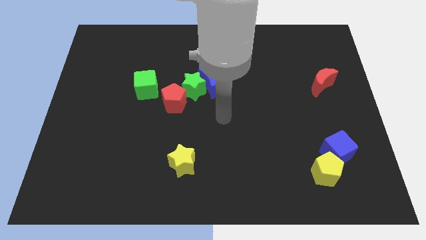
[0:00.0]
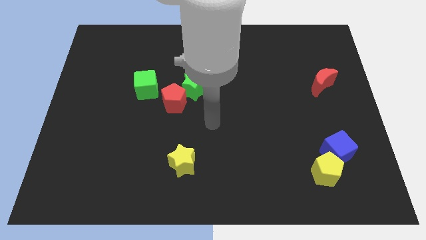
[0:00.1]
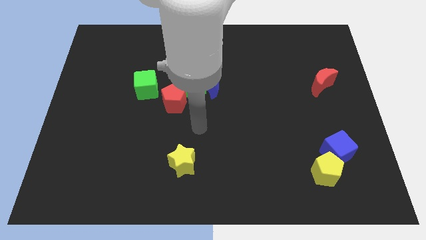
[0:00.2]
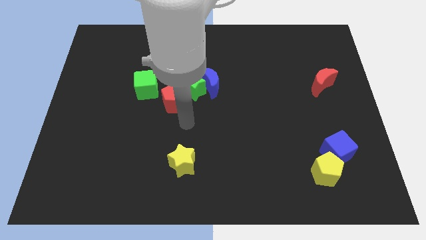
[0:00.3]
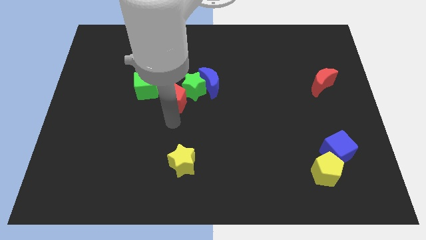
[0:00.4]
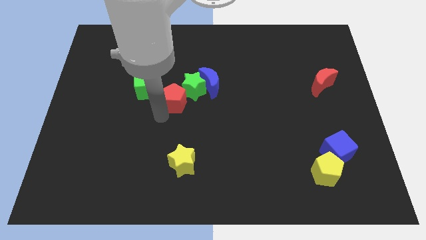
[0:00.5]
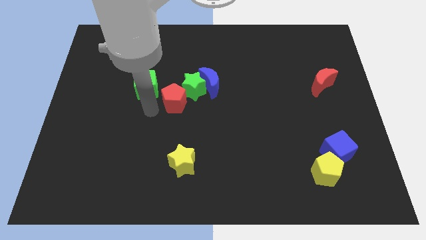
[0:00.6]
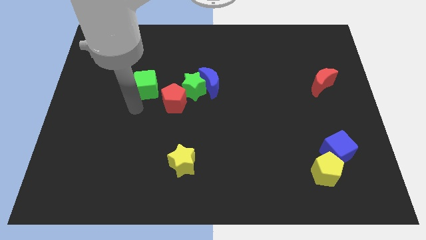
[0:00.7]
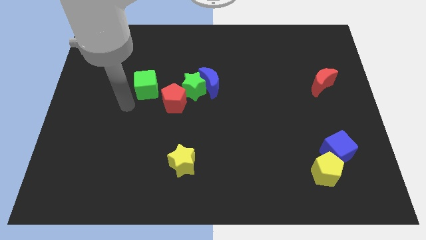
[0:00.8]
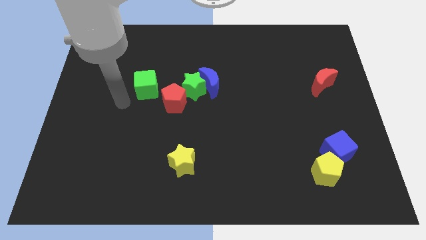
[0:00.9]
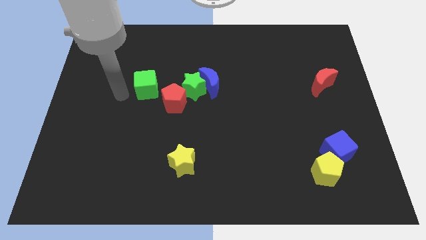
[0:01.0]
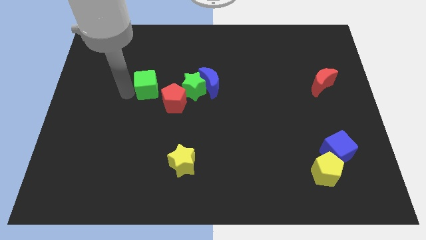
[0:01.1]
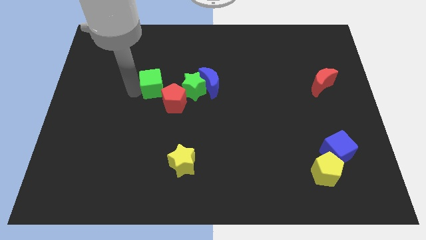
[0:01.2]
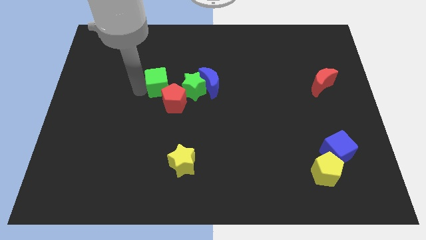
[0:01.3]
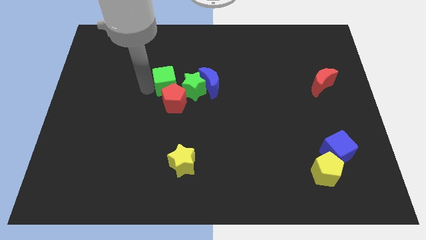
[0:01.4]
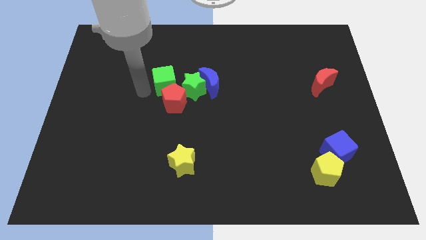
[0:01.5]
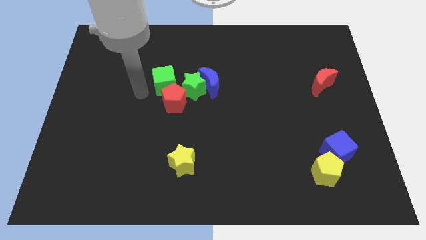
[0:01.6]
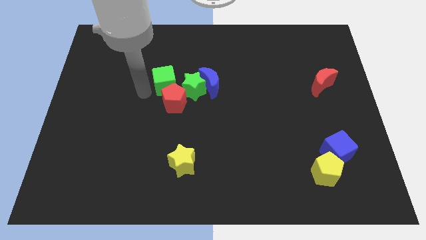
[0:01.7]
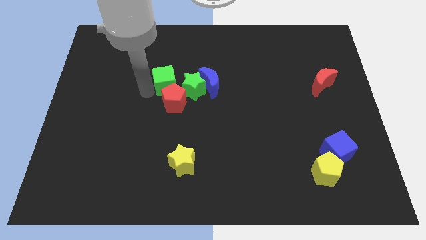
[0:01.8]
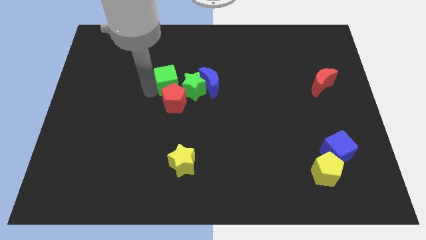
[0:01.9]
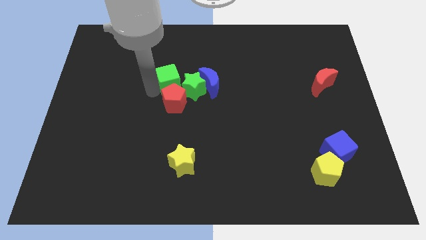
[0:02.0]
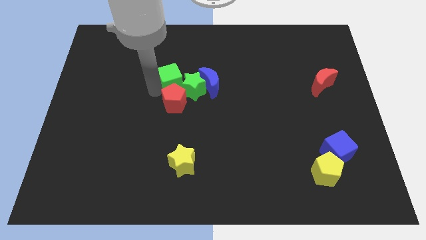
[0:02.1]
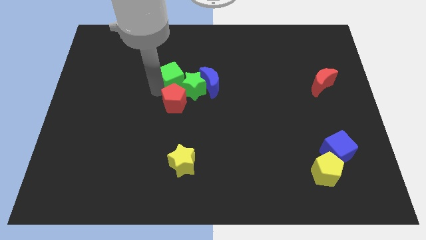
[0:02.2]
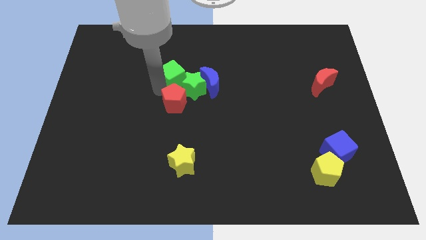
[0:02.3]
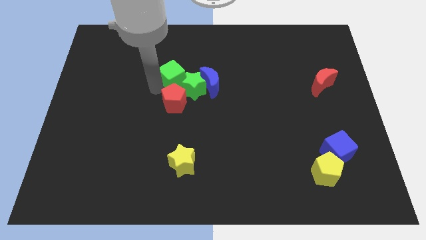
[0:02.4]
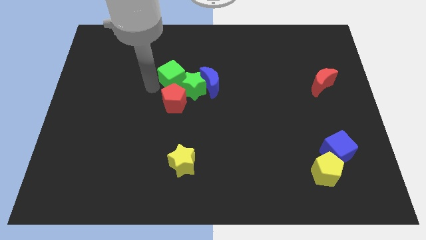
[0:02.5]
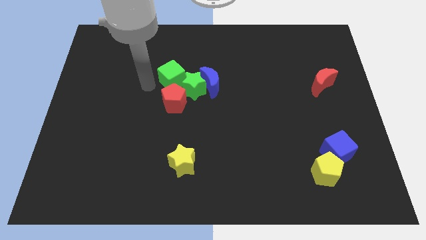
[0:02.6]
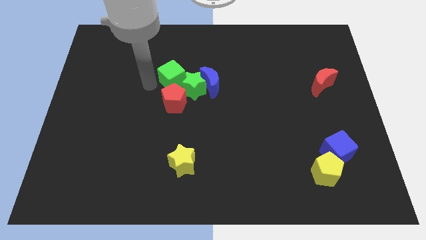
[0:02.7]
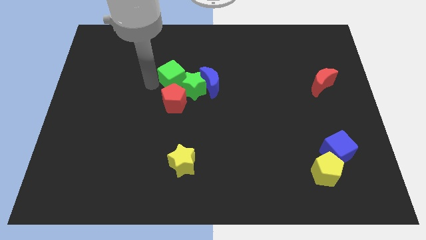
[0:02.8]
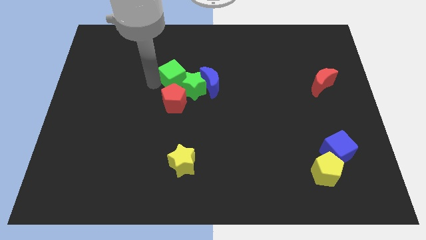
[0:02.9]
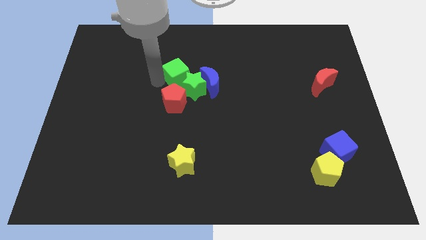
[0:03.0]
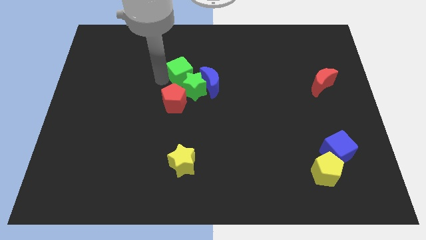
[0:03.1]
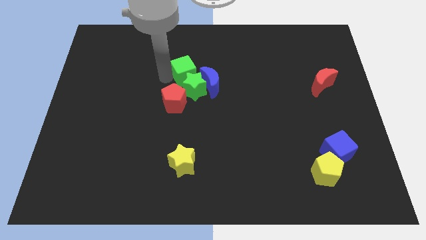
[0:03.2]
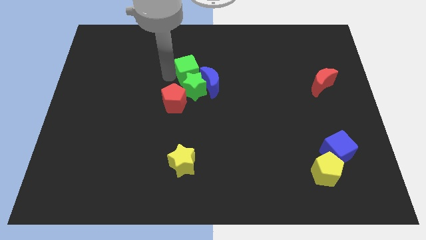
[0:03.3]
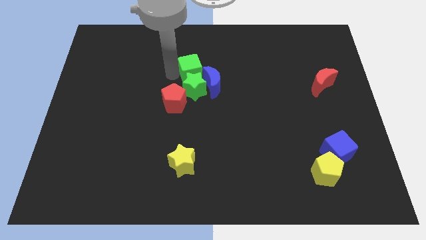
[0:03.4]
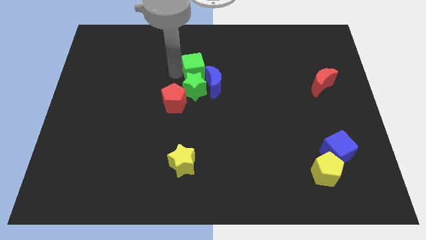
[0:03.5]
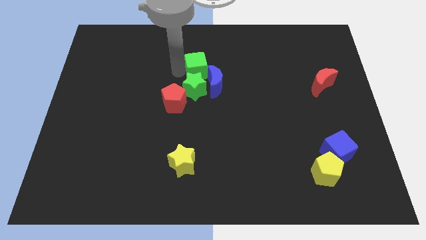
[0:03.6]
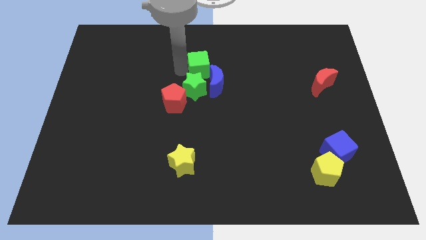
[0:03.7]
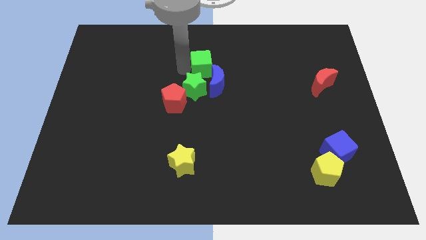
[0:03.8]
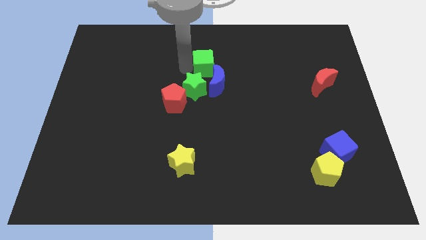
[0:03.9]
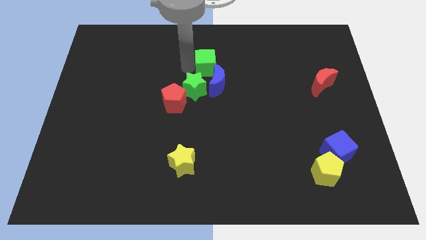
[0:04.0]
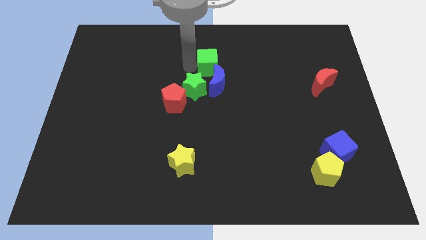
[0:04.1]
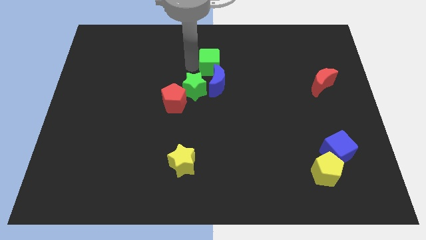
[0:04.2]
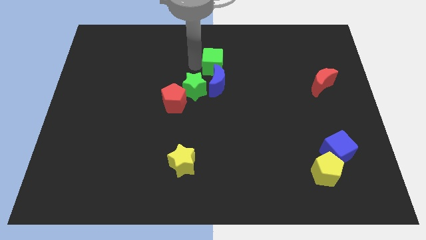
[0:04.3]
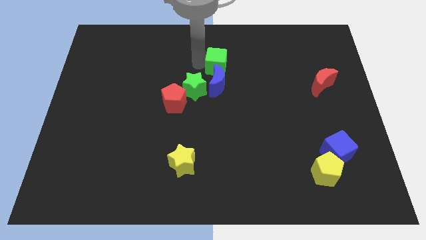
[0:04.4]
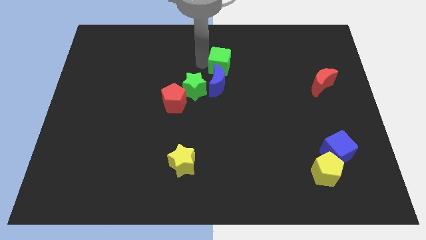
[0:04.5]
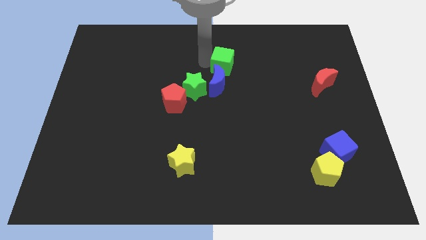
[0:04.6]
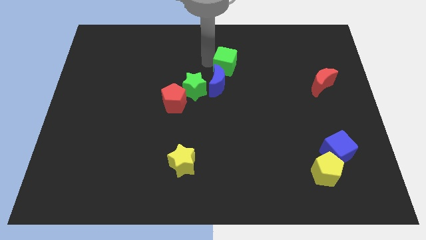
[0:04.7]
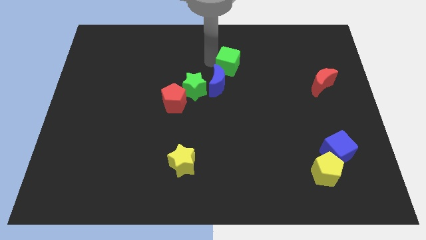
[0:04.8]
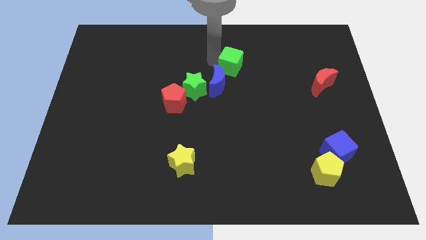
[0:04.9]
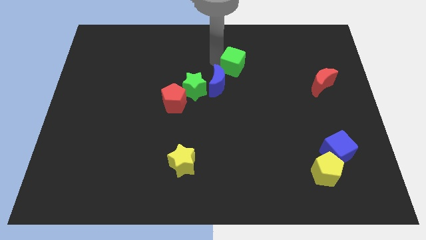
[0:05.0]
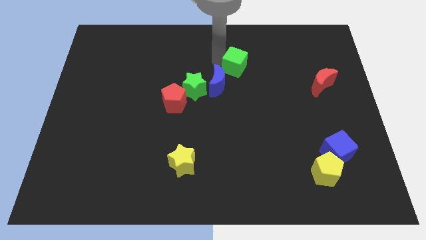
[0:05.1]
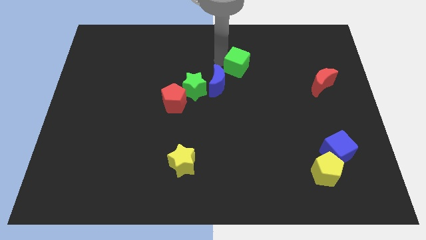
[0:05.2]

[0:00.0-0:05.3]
push the green cube right

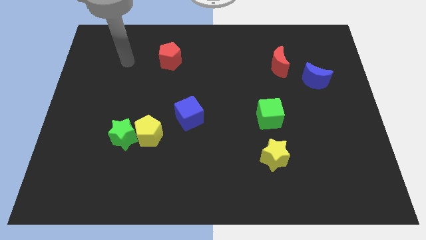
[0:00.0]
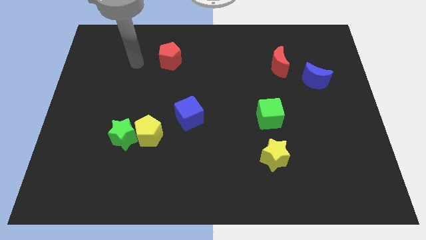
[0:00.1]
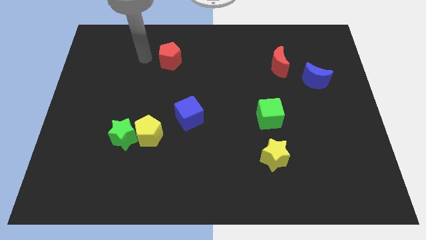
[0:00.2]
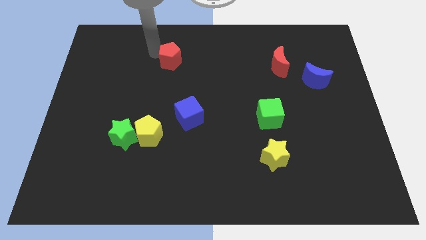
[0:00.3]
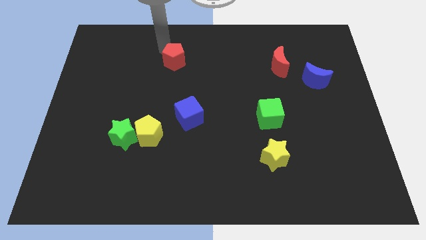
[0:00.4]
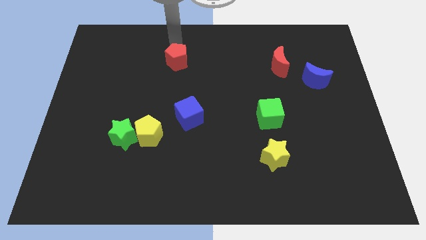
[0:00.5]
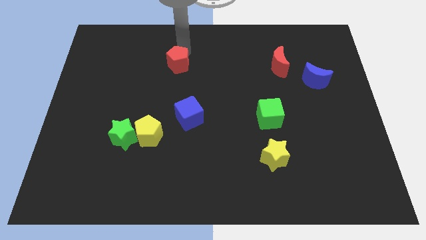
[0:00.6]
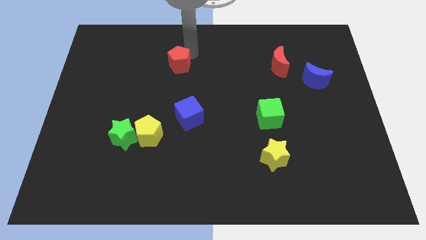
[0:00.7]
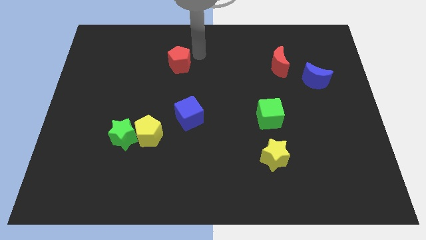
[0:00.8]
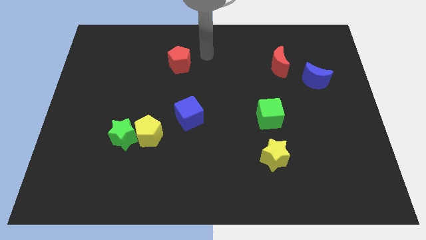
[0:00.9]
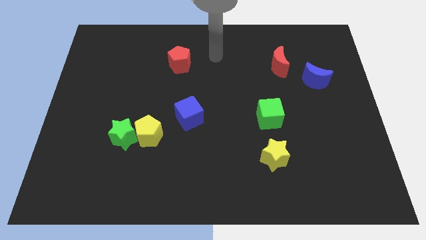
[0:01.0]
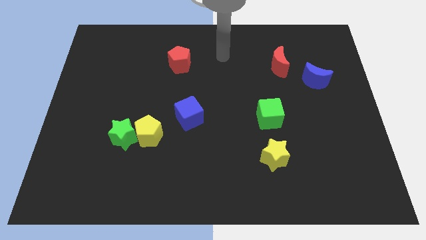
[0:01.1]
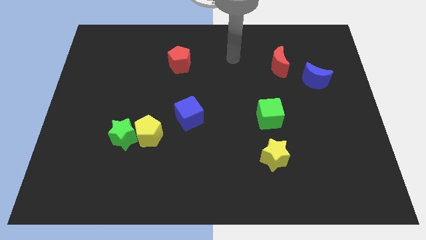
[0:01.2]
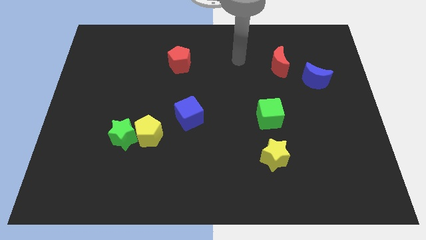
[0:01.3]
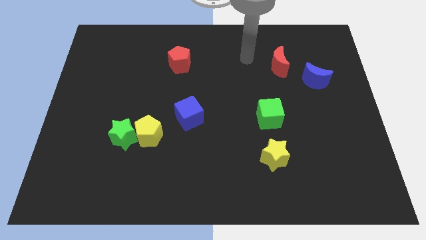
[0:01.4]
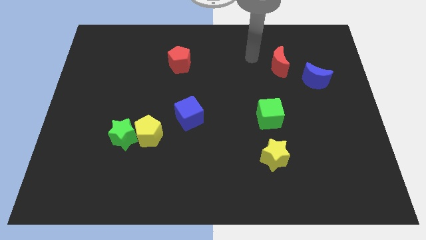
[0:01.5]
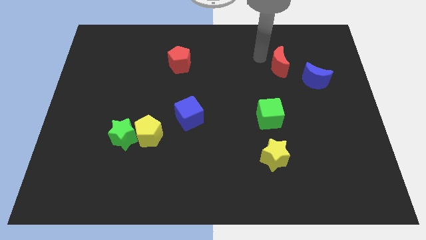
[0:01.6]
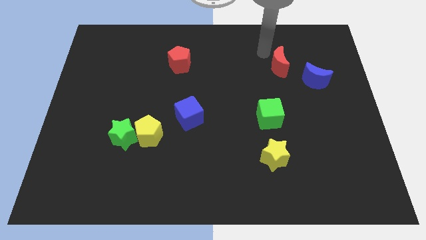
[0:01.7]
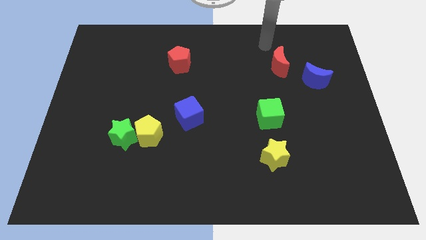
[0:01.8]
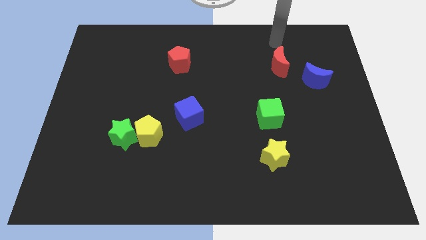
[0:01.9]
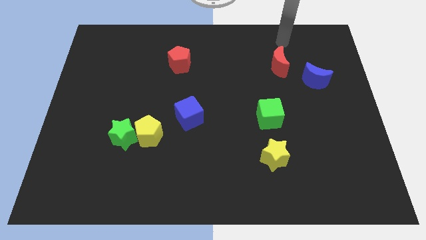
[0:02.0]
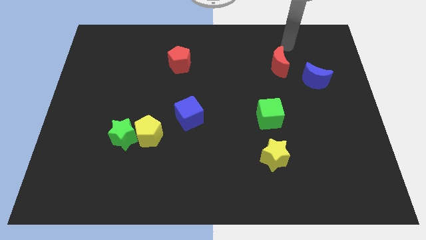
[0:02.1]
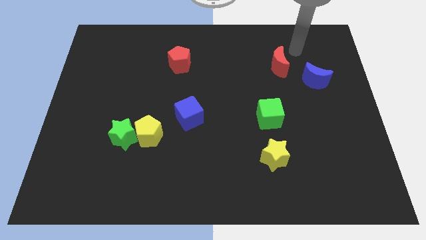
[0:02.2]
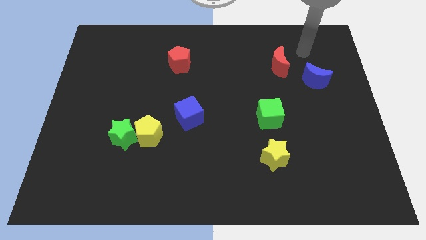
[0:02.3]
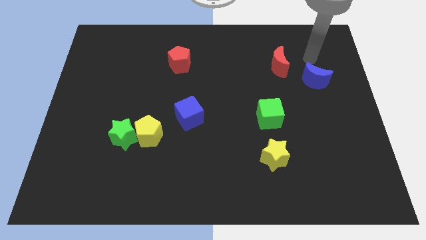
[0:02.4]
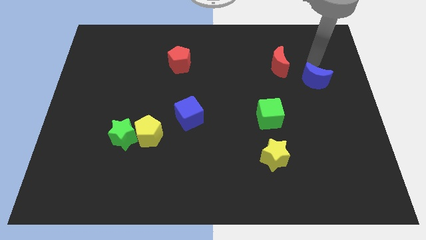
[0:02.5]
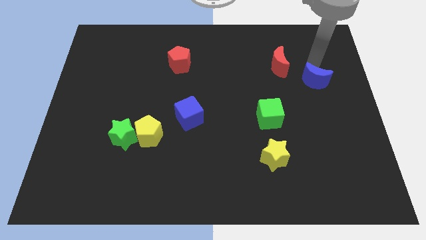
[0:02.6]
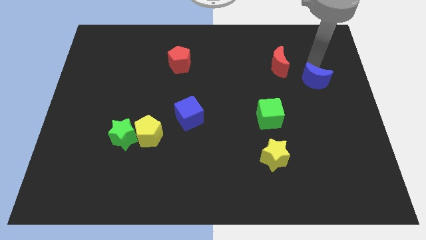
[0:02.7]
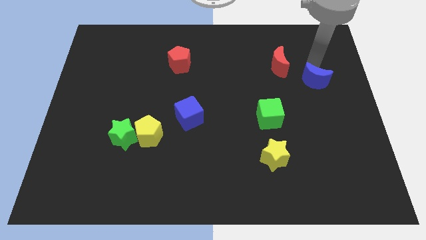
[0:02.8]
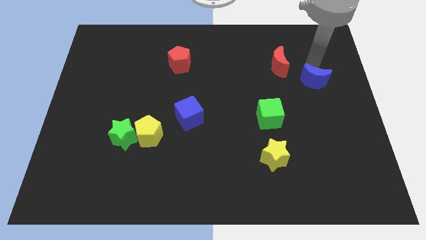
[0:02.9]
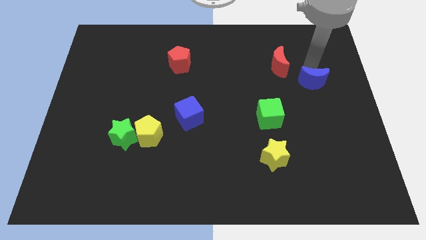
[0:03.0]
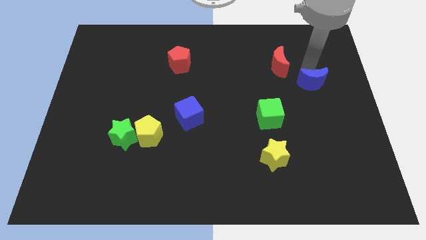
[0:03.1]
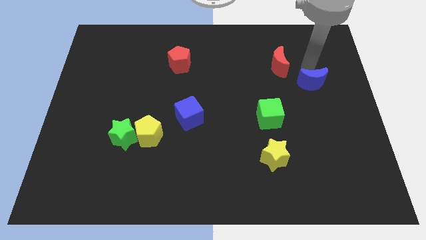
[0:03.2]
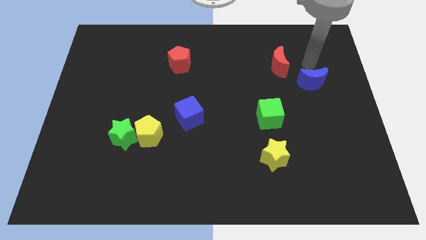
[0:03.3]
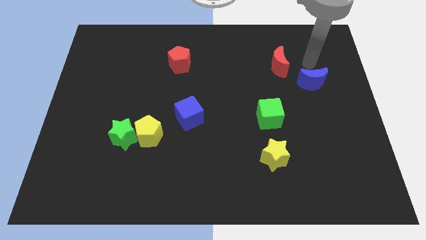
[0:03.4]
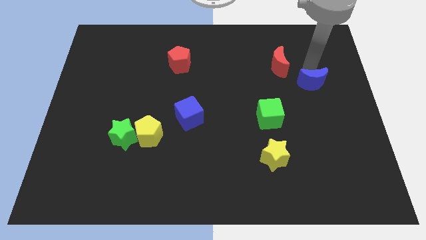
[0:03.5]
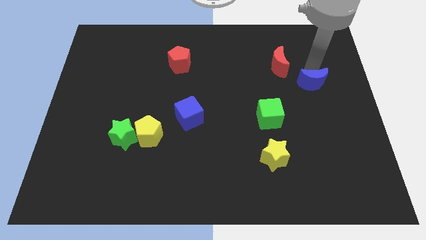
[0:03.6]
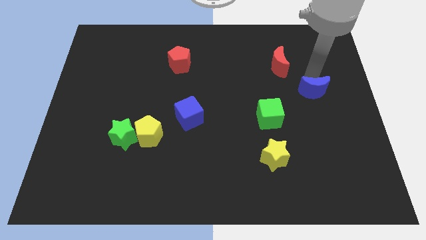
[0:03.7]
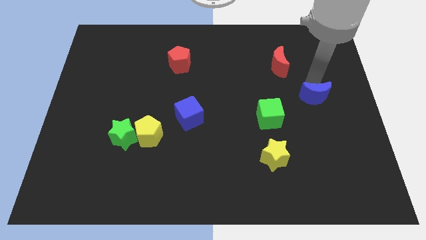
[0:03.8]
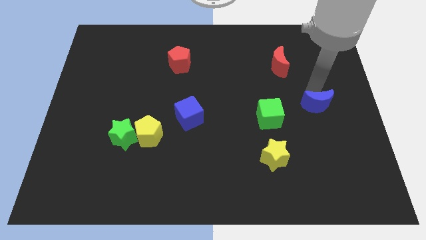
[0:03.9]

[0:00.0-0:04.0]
slide the blue moon downwards slightly
